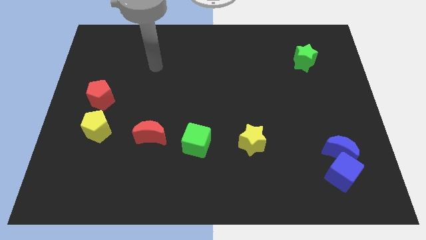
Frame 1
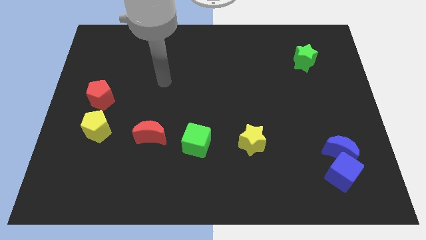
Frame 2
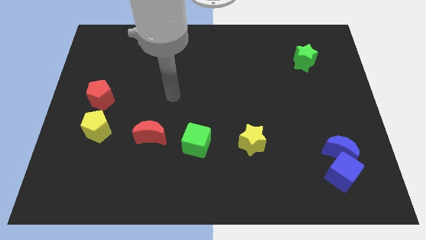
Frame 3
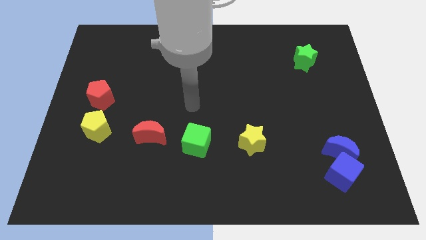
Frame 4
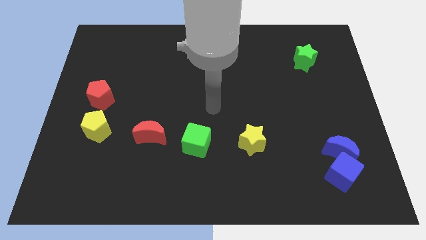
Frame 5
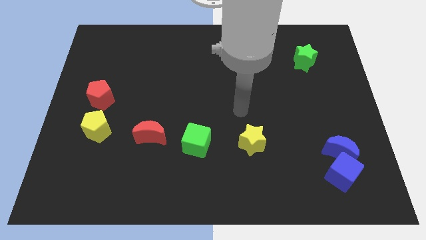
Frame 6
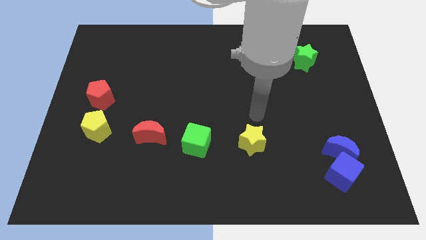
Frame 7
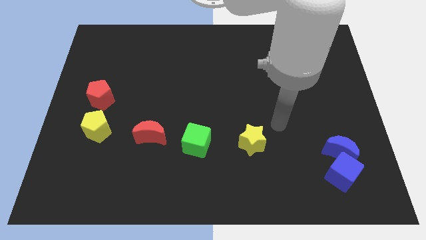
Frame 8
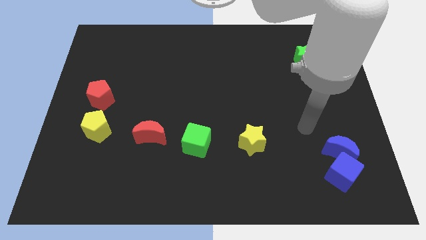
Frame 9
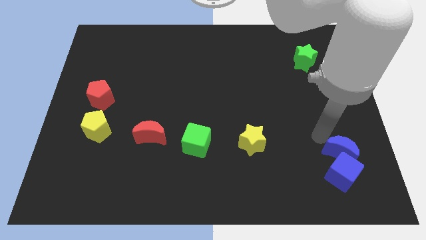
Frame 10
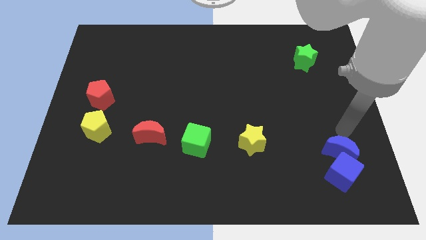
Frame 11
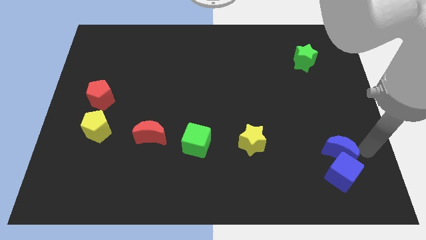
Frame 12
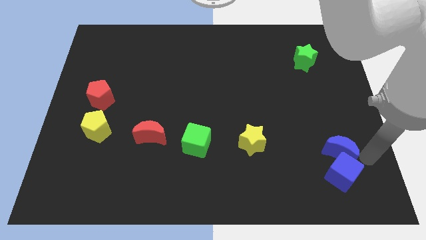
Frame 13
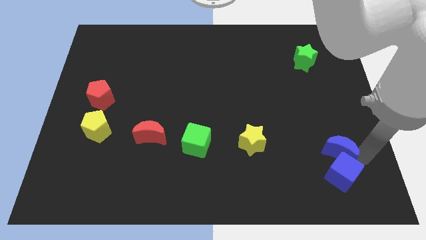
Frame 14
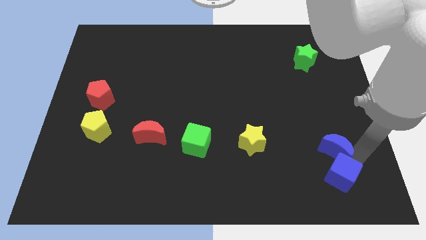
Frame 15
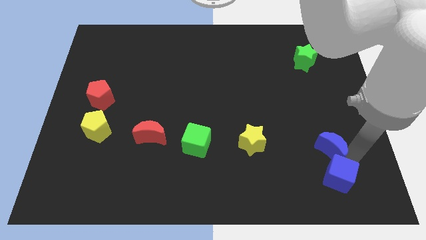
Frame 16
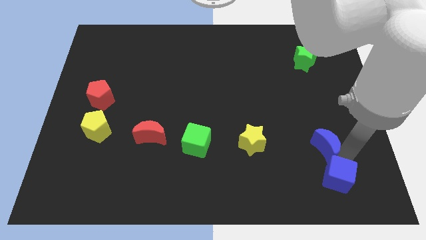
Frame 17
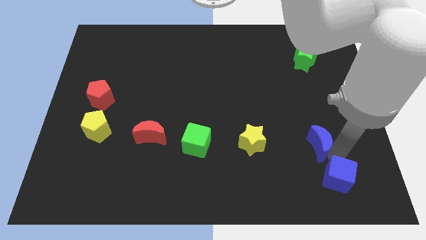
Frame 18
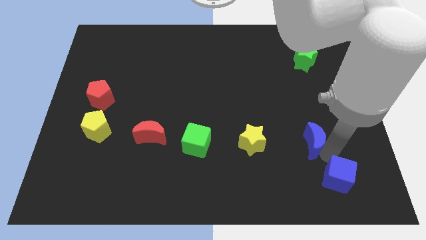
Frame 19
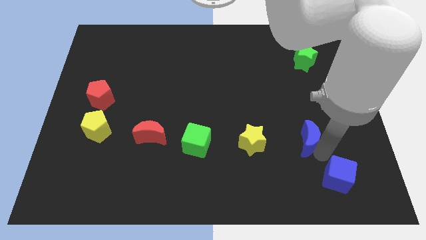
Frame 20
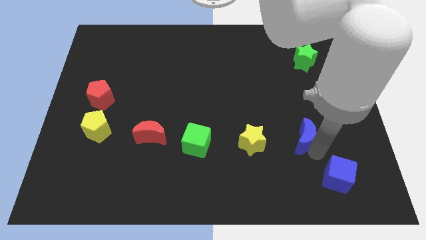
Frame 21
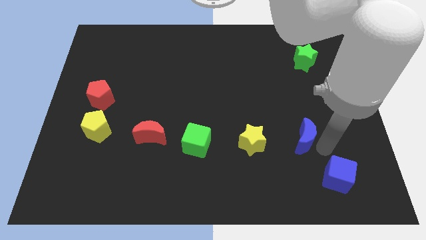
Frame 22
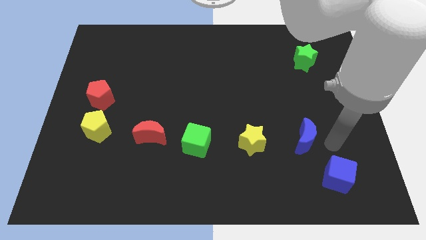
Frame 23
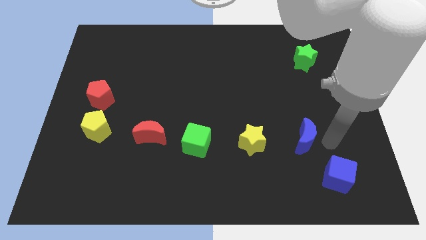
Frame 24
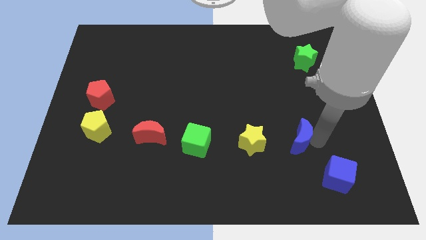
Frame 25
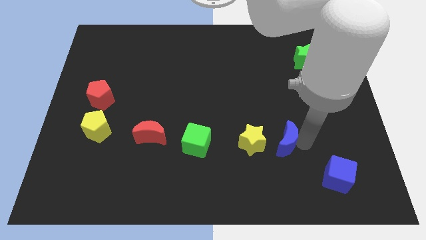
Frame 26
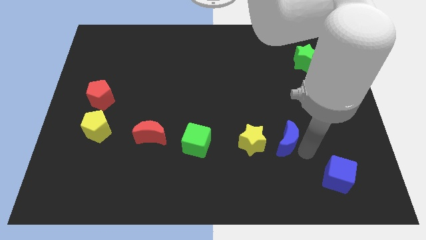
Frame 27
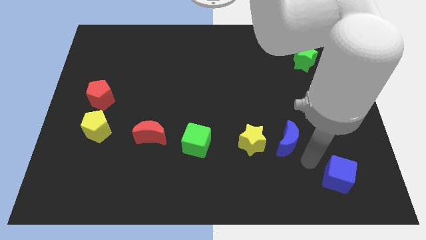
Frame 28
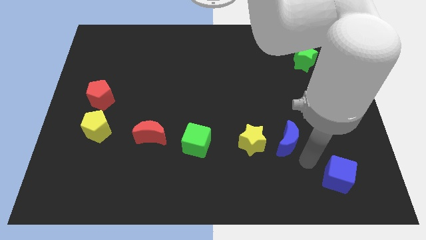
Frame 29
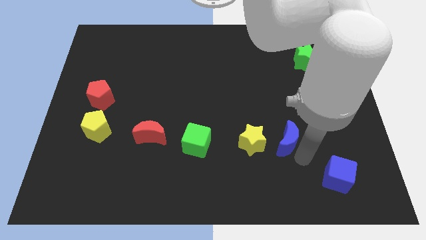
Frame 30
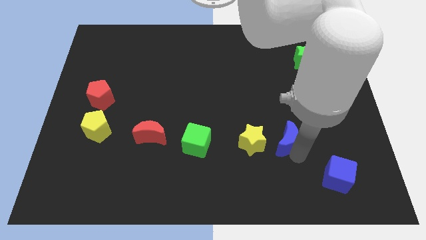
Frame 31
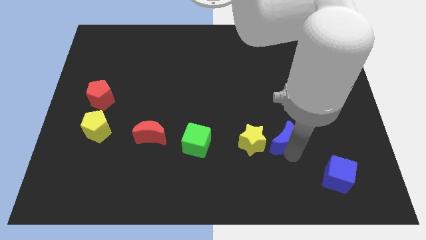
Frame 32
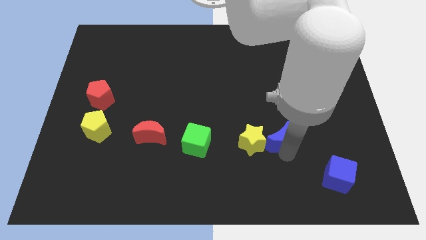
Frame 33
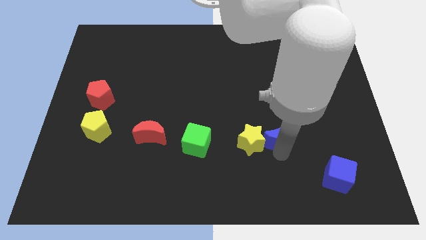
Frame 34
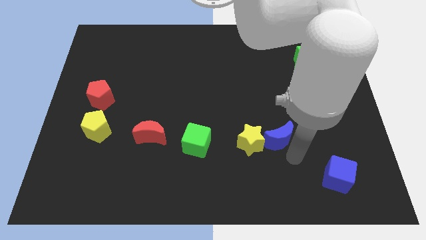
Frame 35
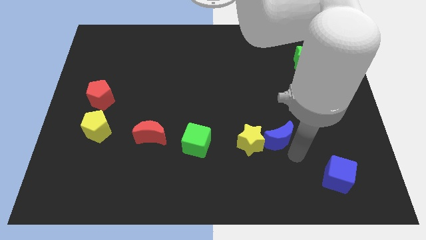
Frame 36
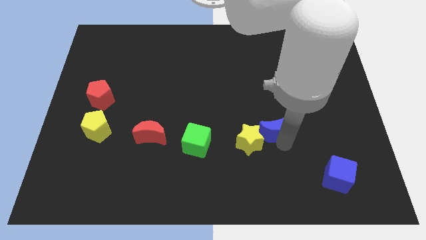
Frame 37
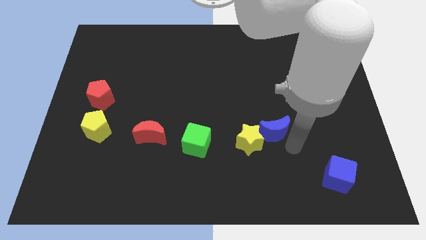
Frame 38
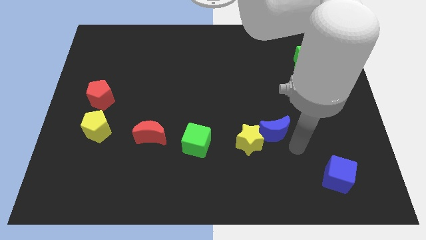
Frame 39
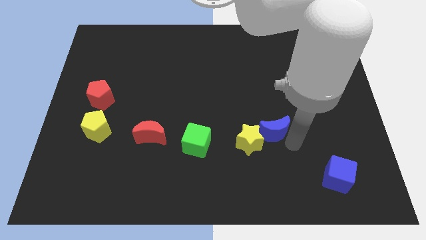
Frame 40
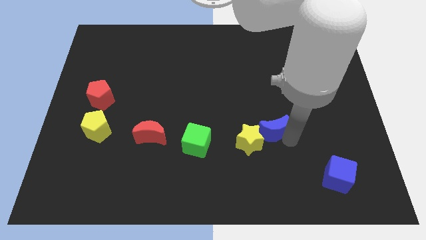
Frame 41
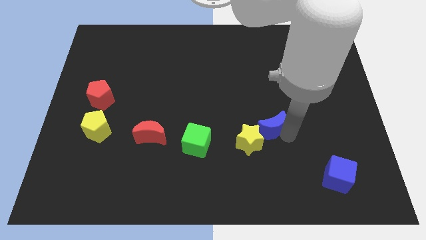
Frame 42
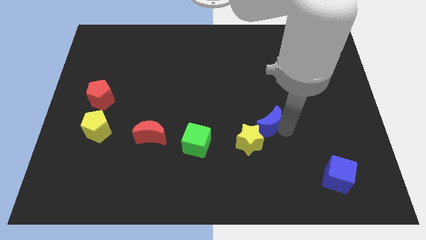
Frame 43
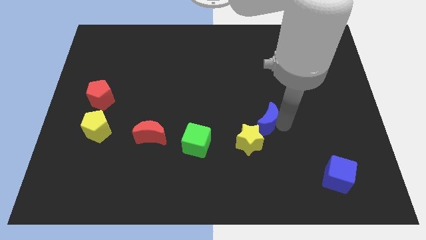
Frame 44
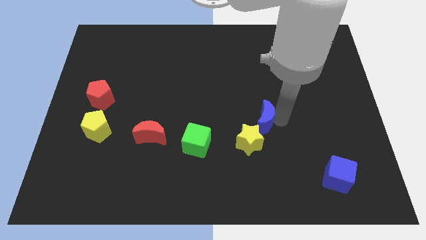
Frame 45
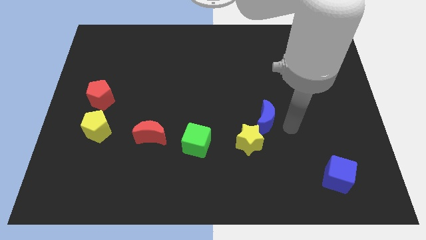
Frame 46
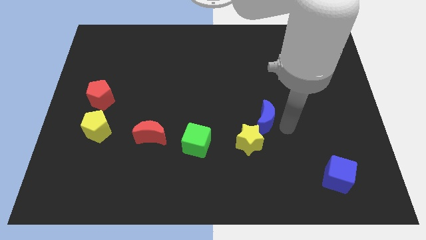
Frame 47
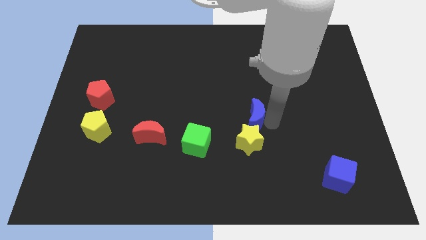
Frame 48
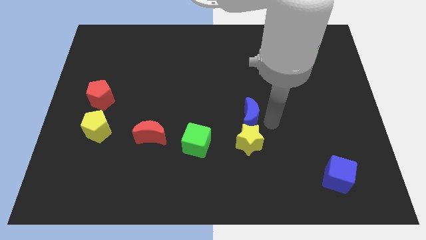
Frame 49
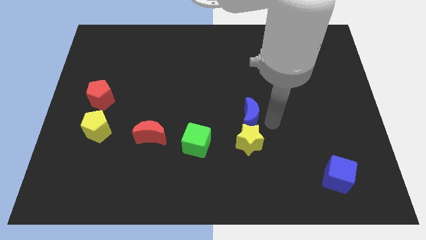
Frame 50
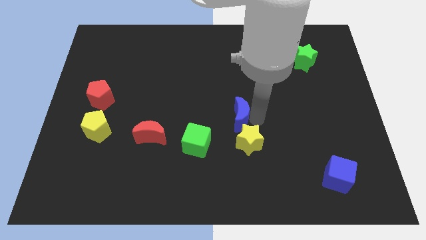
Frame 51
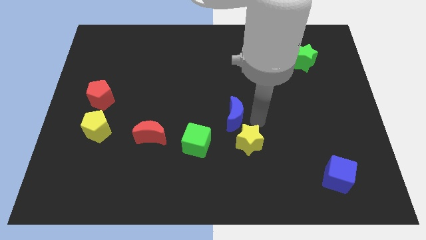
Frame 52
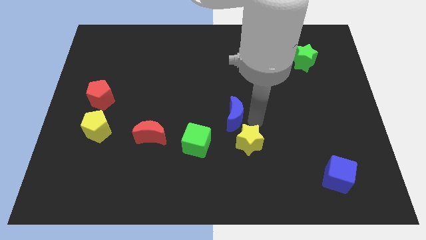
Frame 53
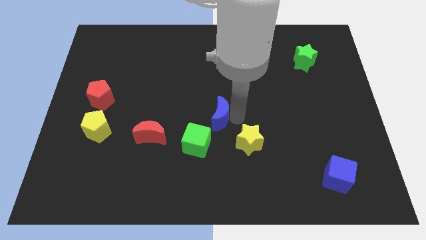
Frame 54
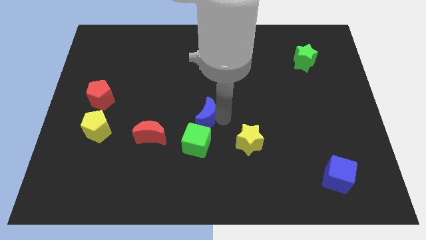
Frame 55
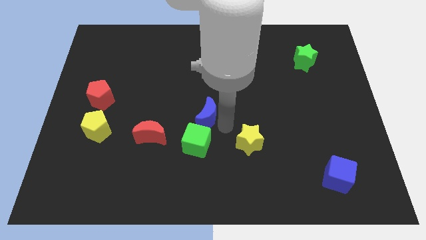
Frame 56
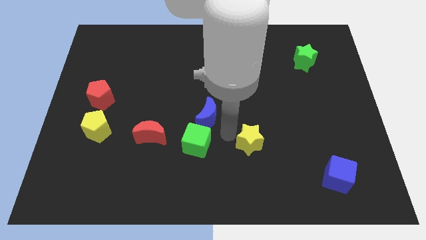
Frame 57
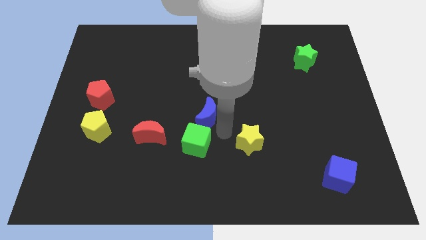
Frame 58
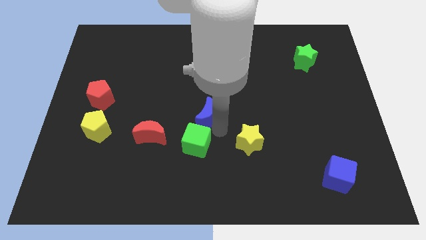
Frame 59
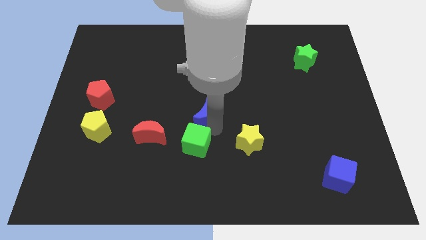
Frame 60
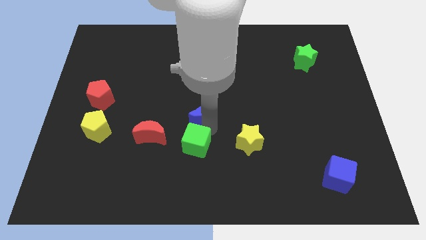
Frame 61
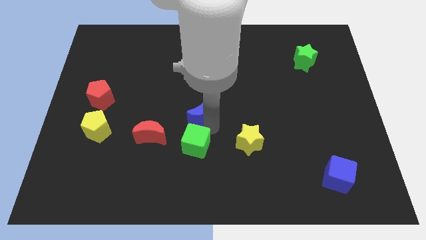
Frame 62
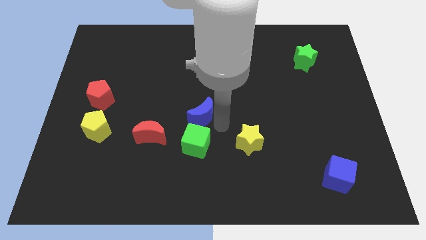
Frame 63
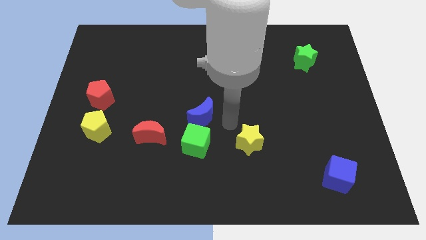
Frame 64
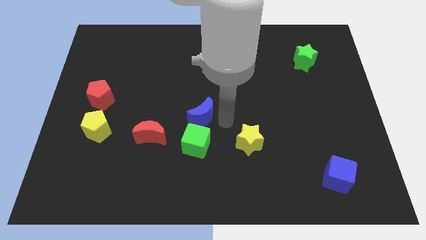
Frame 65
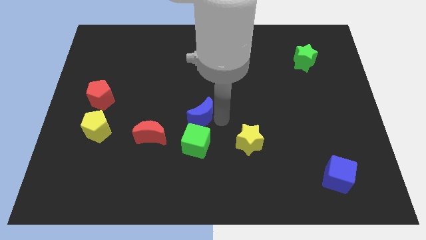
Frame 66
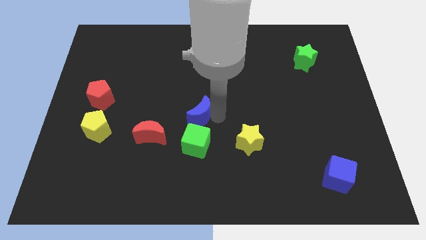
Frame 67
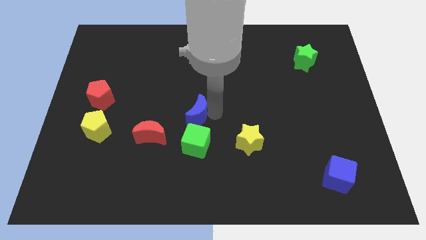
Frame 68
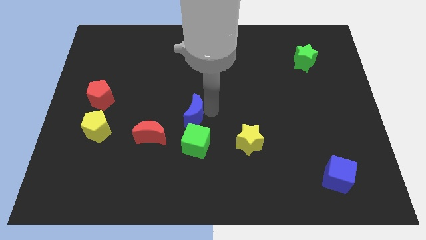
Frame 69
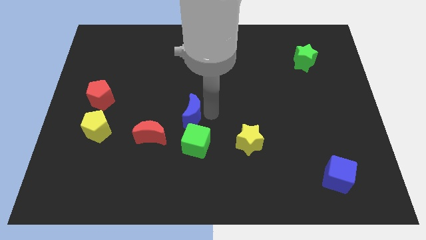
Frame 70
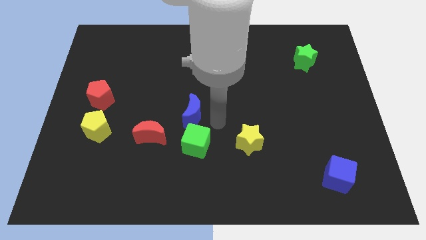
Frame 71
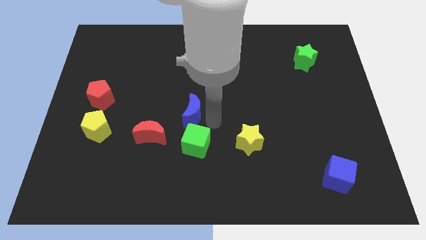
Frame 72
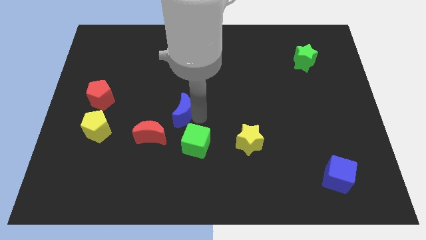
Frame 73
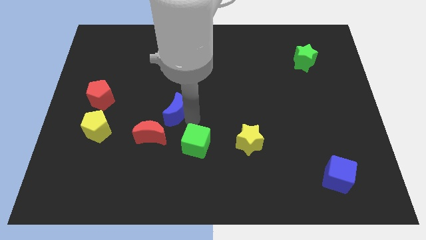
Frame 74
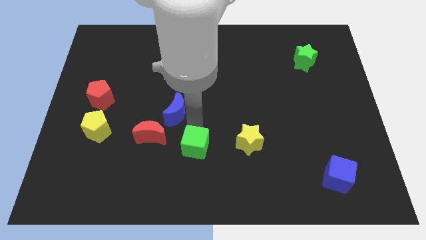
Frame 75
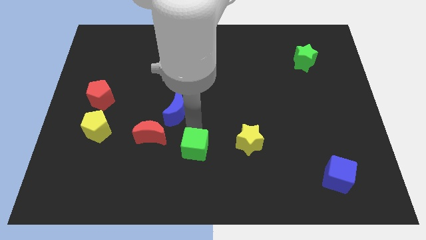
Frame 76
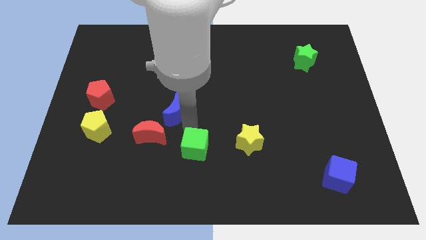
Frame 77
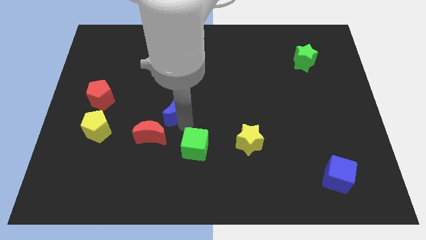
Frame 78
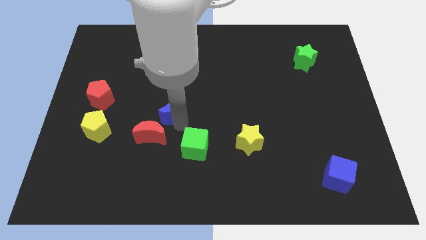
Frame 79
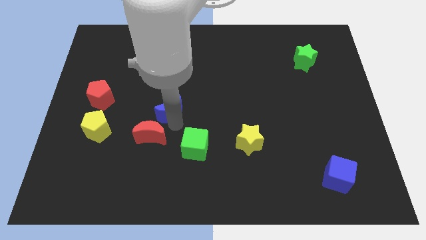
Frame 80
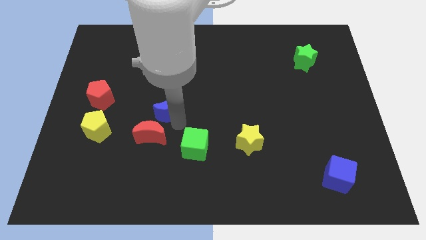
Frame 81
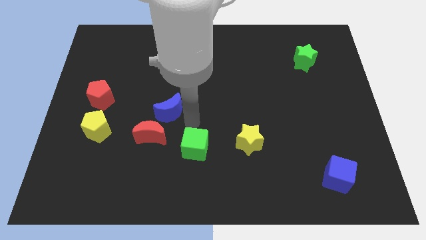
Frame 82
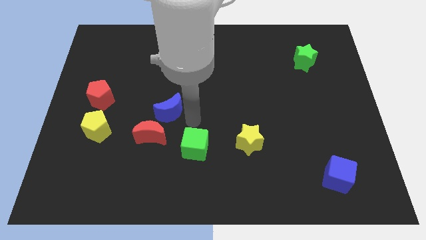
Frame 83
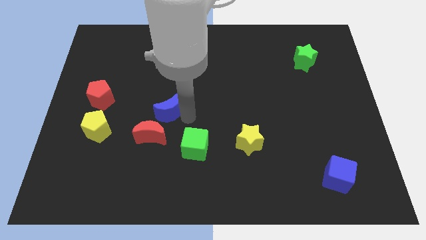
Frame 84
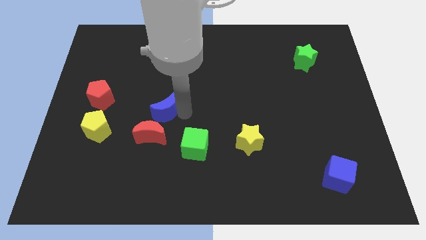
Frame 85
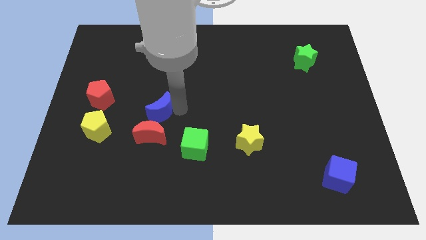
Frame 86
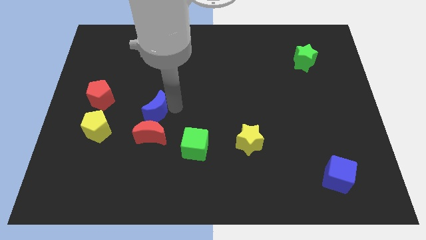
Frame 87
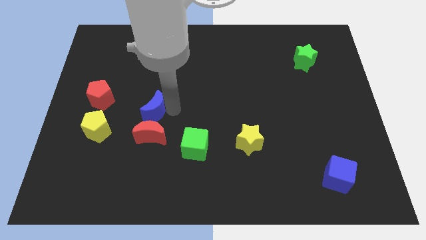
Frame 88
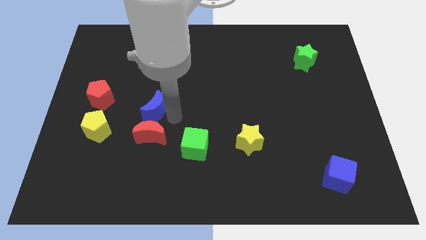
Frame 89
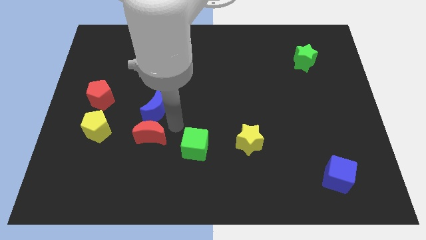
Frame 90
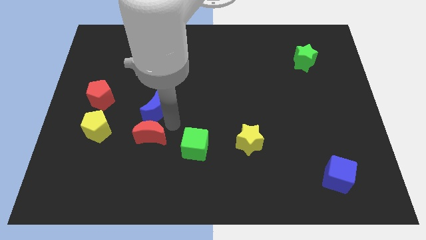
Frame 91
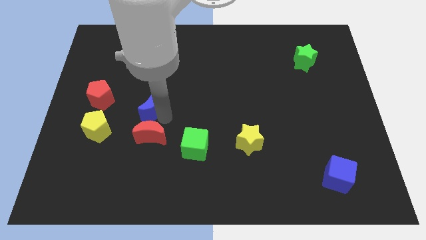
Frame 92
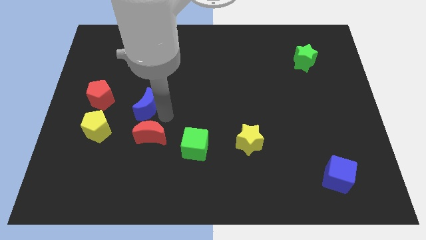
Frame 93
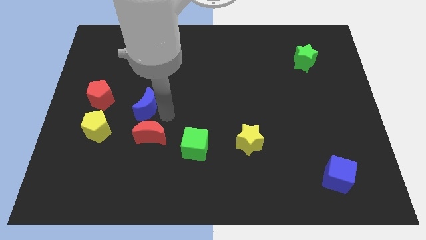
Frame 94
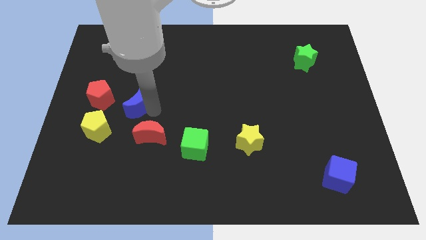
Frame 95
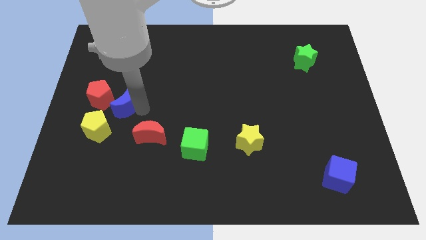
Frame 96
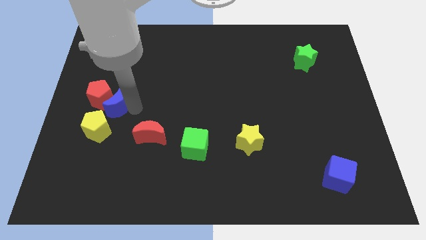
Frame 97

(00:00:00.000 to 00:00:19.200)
put the blue moon to the red pentagon
